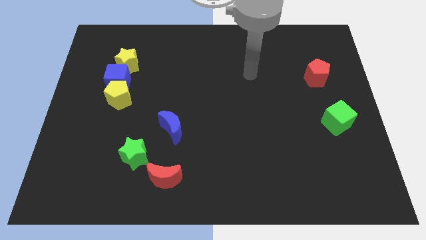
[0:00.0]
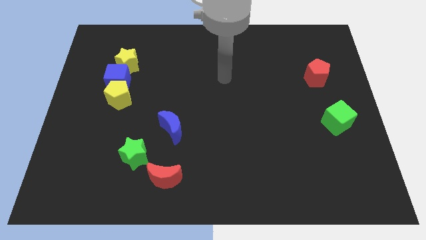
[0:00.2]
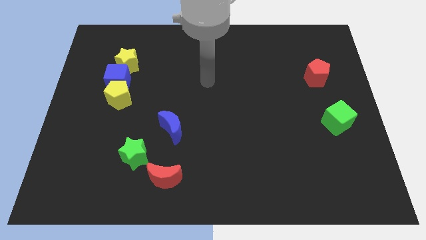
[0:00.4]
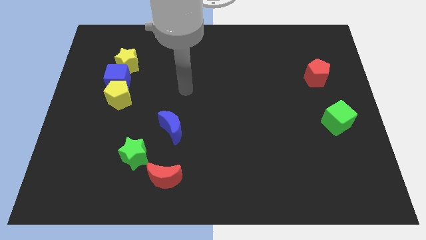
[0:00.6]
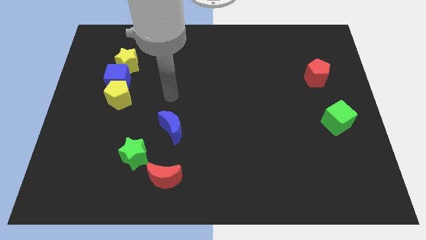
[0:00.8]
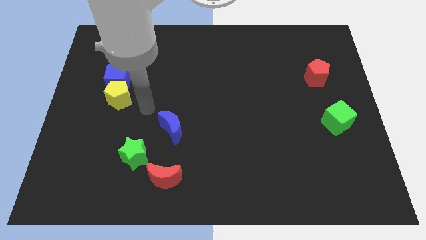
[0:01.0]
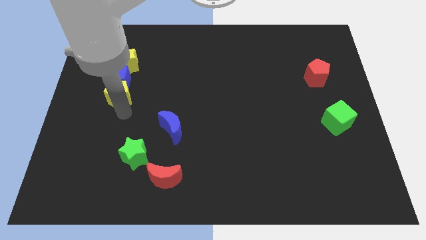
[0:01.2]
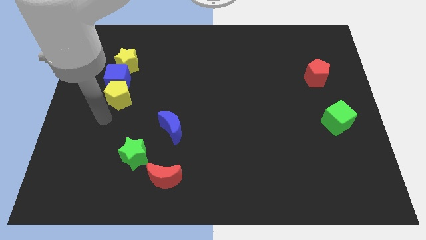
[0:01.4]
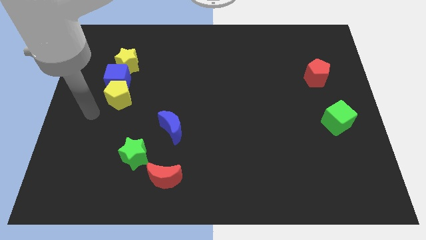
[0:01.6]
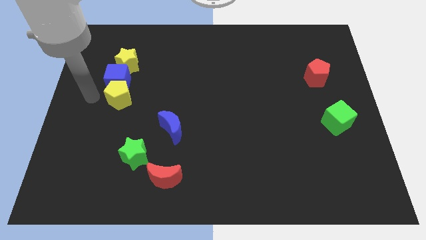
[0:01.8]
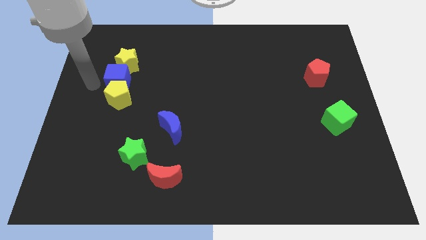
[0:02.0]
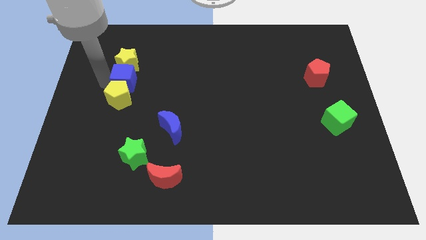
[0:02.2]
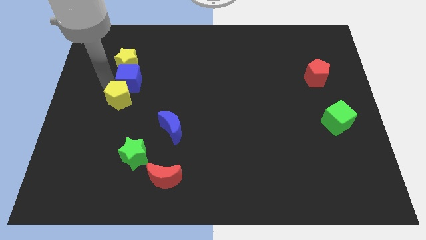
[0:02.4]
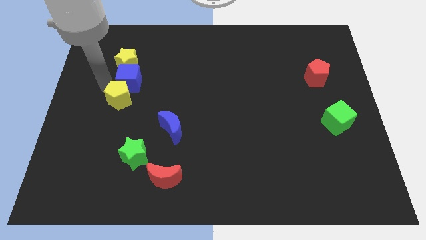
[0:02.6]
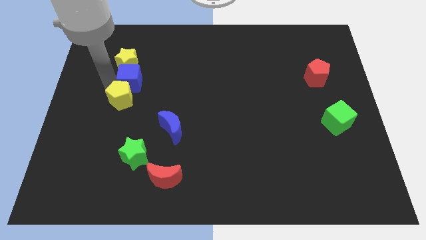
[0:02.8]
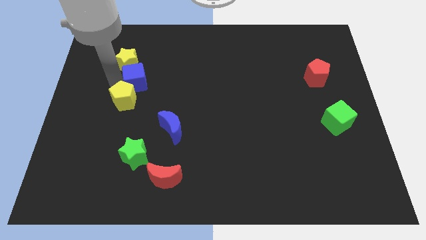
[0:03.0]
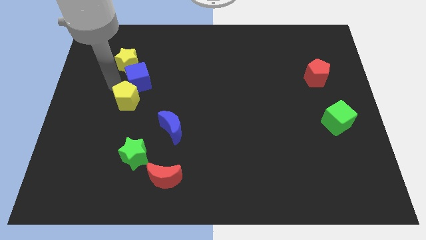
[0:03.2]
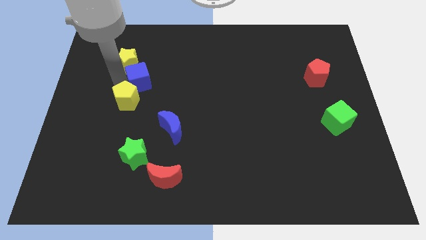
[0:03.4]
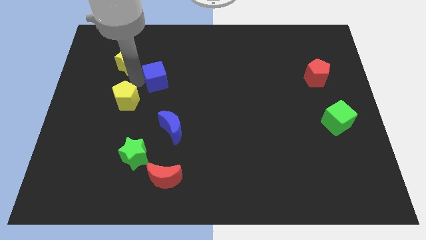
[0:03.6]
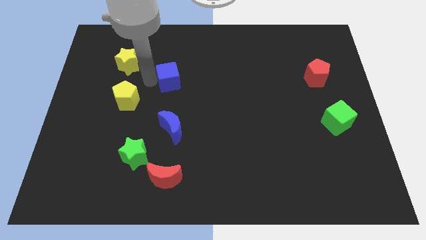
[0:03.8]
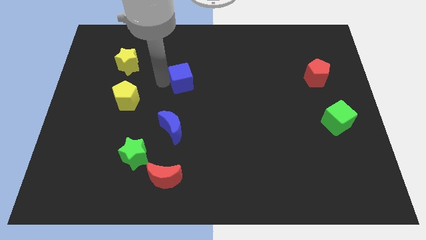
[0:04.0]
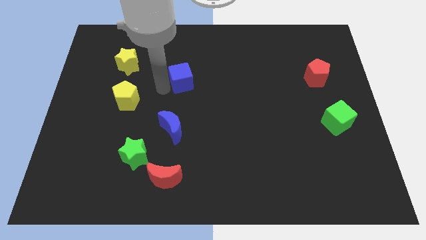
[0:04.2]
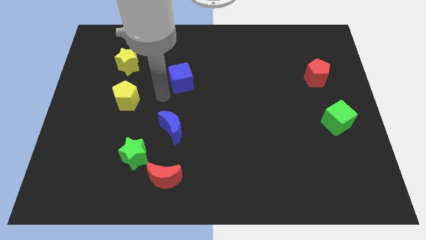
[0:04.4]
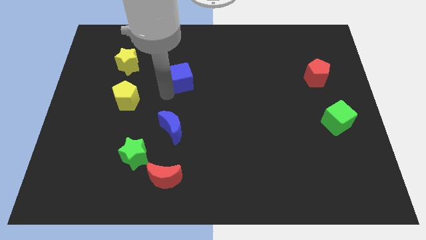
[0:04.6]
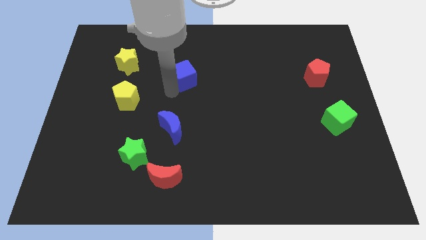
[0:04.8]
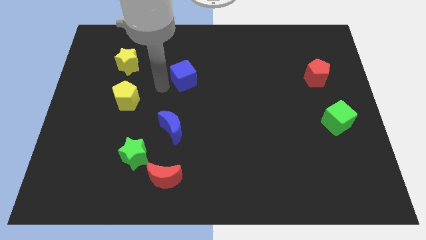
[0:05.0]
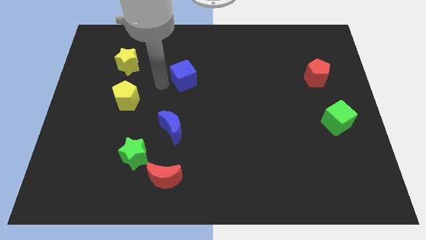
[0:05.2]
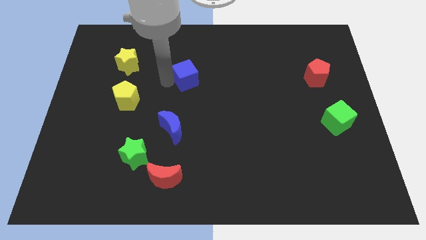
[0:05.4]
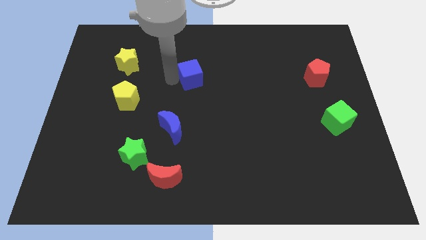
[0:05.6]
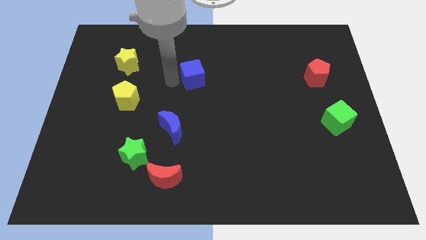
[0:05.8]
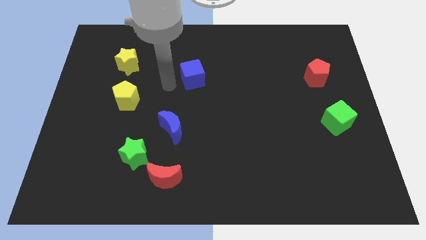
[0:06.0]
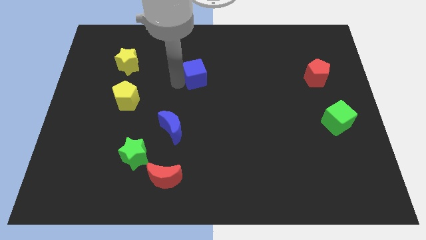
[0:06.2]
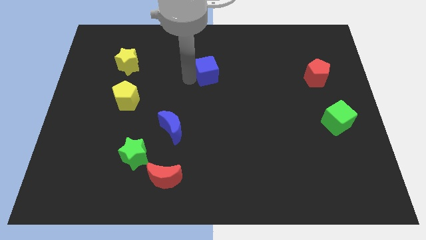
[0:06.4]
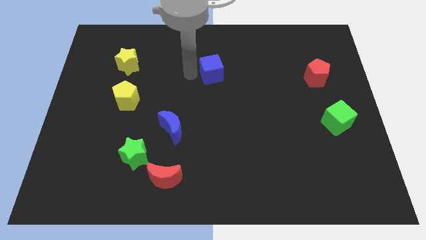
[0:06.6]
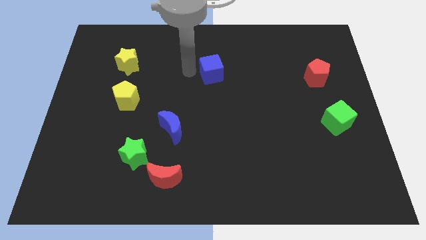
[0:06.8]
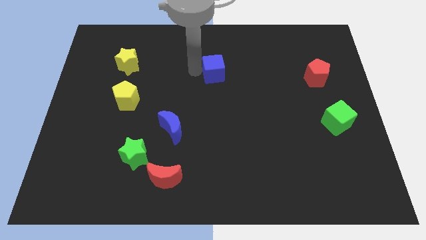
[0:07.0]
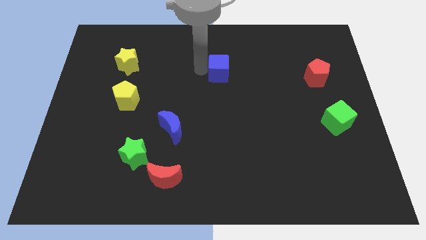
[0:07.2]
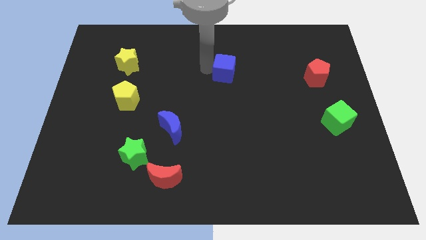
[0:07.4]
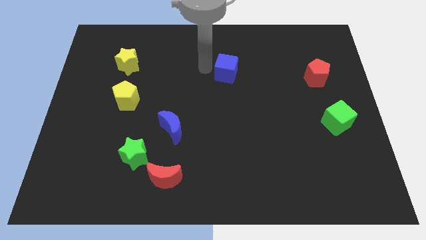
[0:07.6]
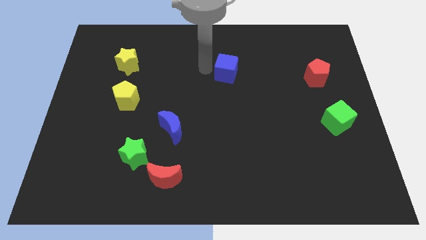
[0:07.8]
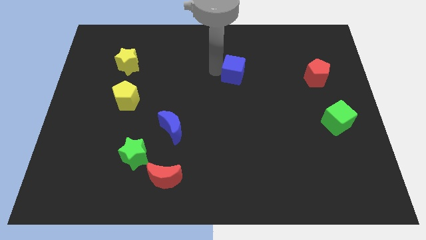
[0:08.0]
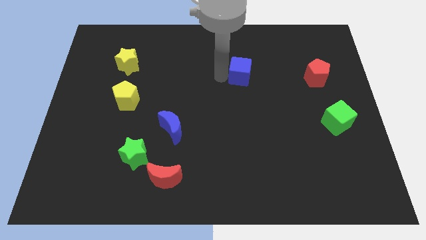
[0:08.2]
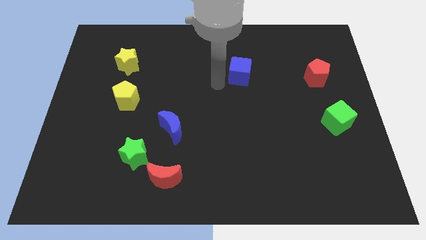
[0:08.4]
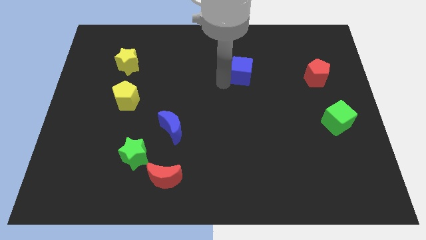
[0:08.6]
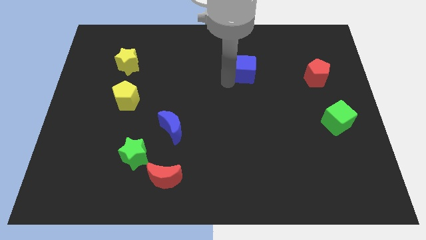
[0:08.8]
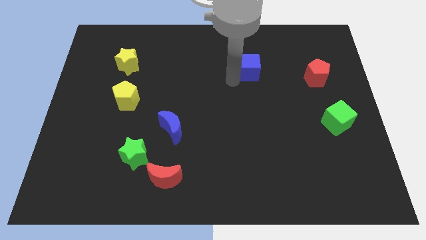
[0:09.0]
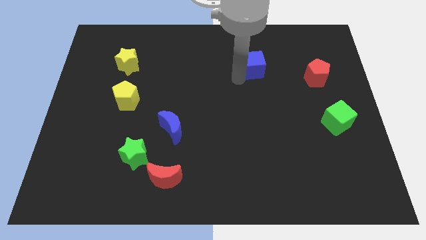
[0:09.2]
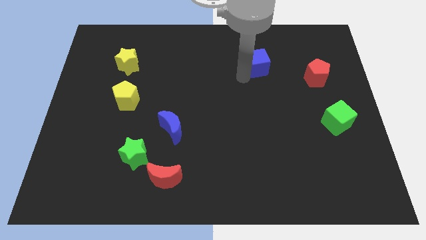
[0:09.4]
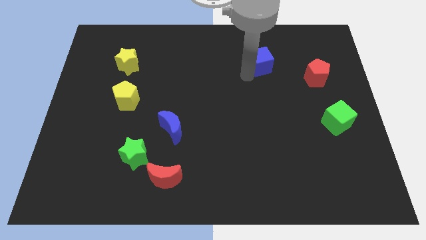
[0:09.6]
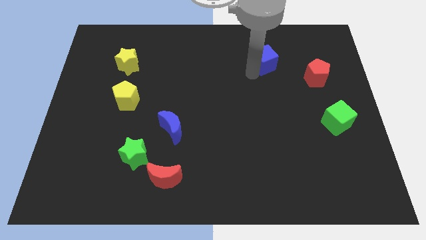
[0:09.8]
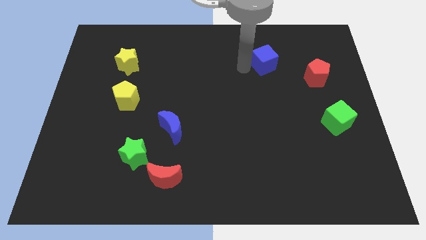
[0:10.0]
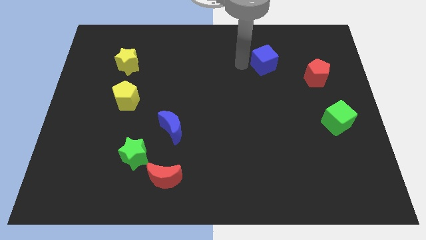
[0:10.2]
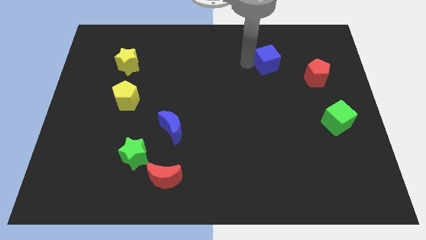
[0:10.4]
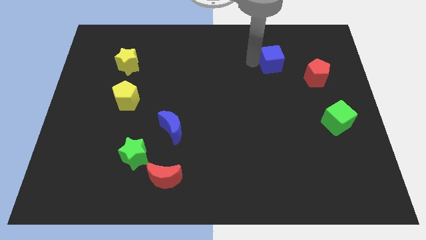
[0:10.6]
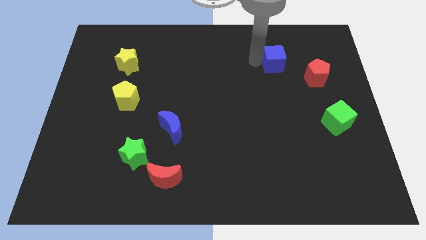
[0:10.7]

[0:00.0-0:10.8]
move the blue cube to the top left side of the red pentagon

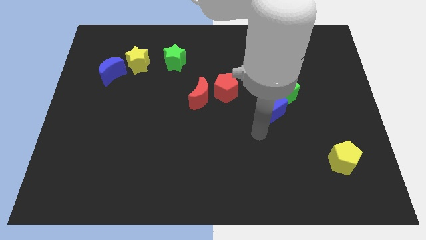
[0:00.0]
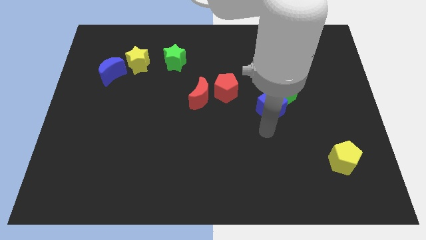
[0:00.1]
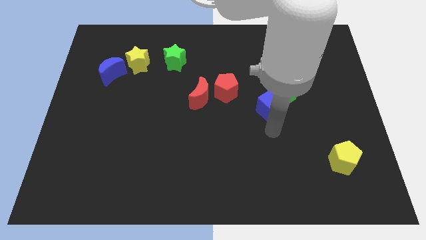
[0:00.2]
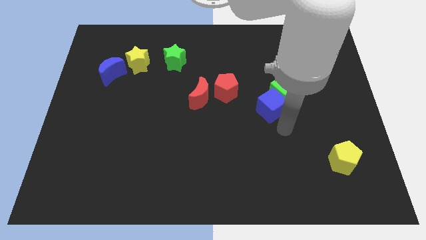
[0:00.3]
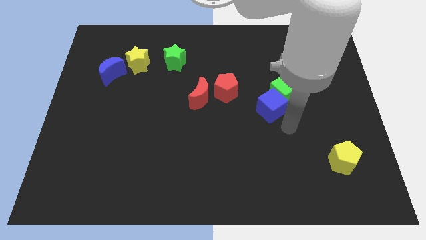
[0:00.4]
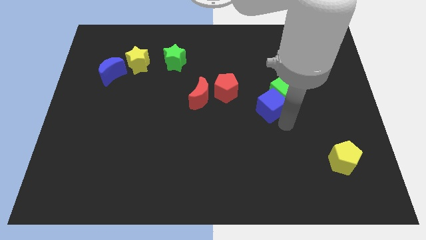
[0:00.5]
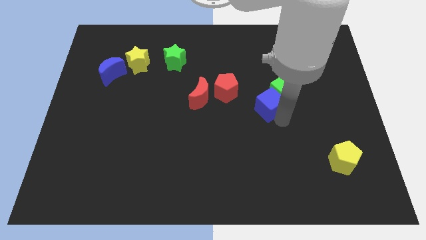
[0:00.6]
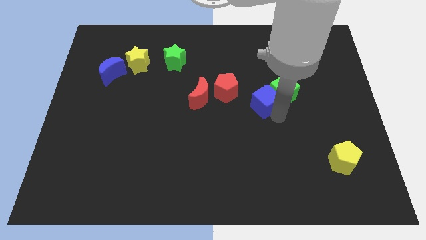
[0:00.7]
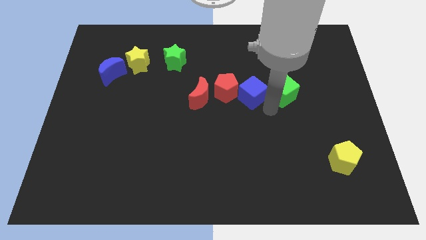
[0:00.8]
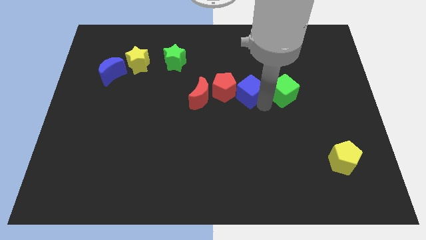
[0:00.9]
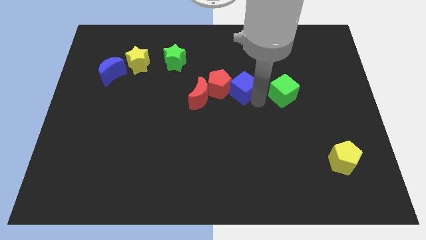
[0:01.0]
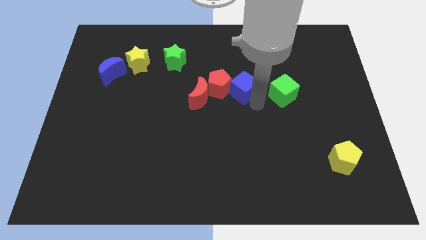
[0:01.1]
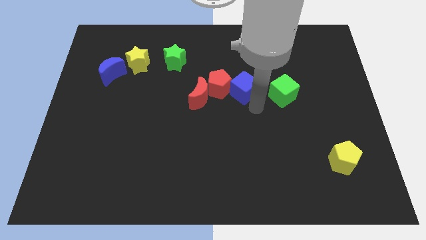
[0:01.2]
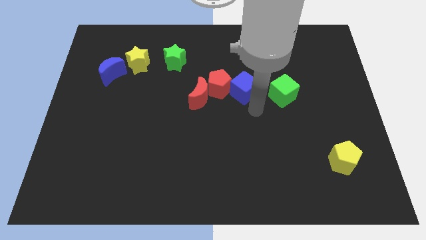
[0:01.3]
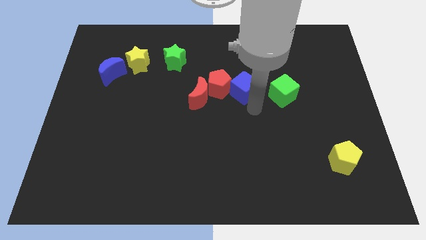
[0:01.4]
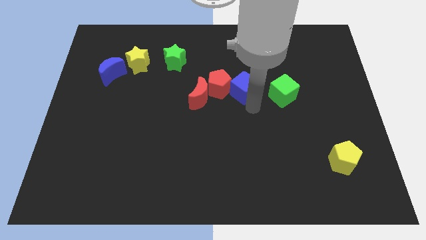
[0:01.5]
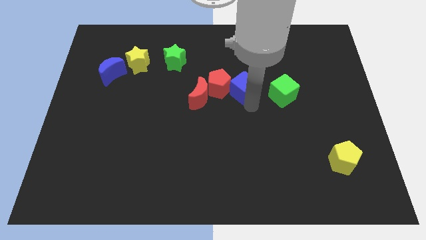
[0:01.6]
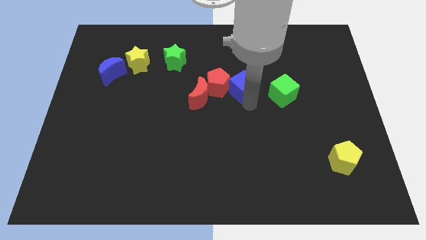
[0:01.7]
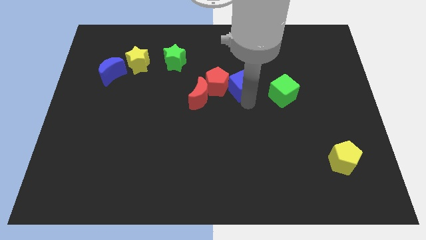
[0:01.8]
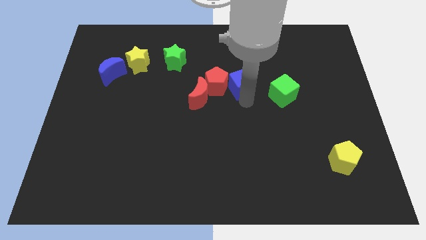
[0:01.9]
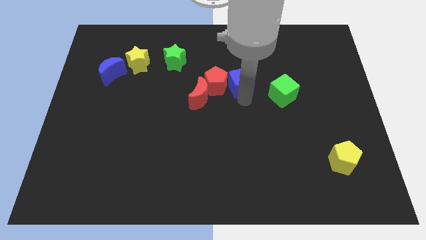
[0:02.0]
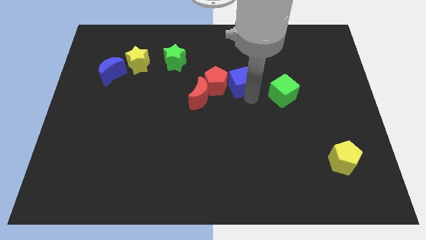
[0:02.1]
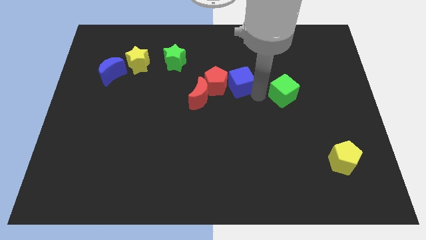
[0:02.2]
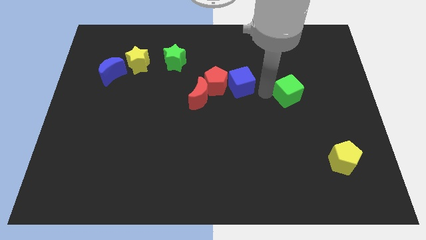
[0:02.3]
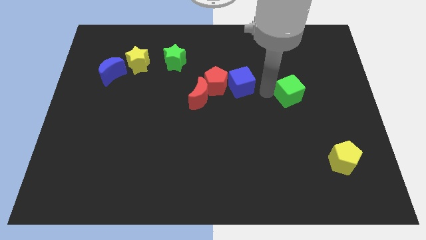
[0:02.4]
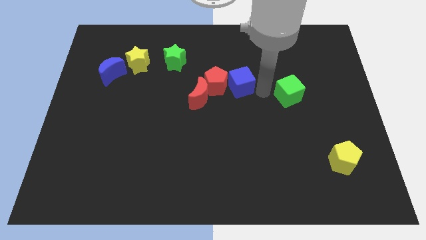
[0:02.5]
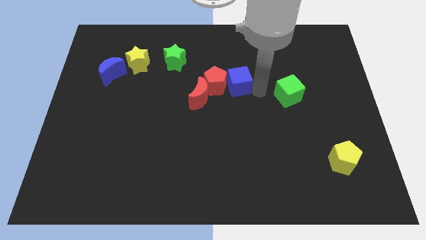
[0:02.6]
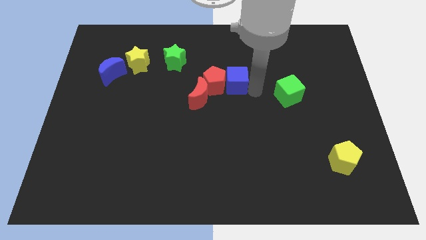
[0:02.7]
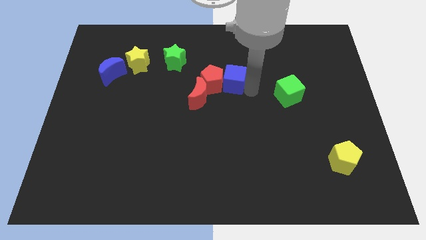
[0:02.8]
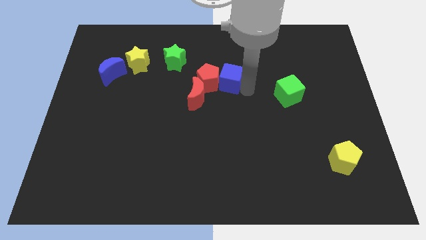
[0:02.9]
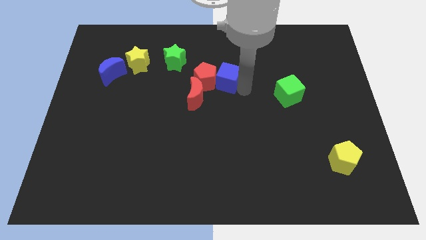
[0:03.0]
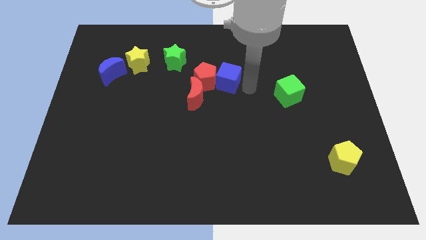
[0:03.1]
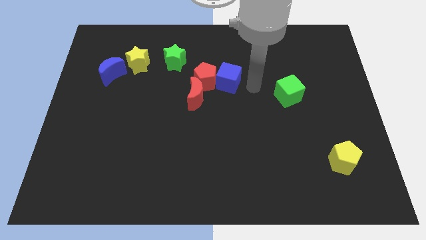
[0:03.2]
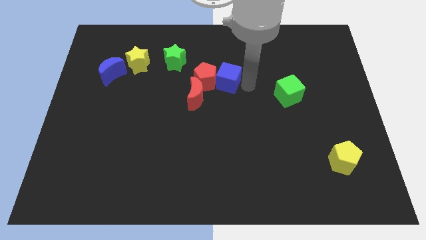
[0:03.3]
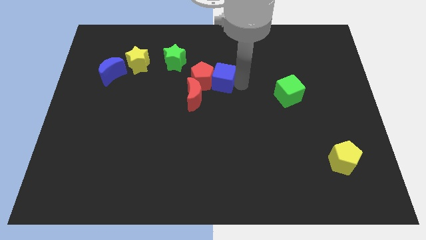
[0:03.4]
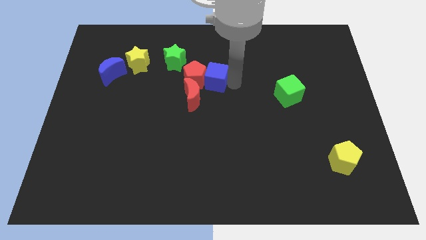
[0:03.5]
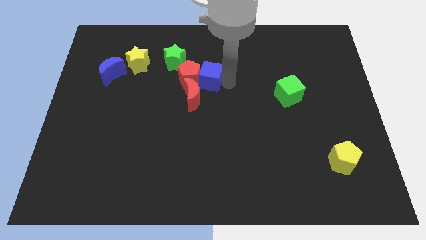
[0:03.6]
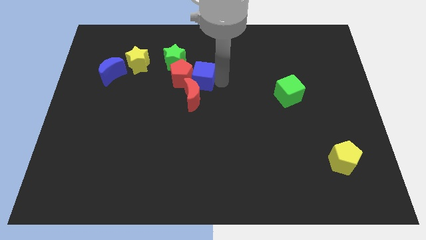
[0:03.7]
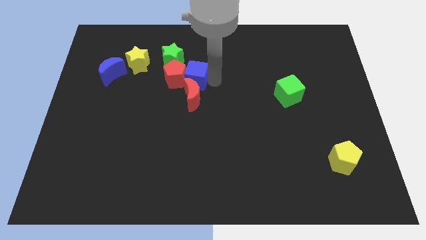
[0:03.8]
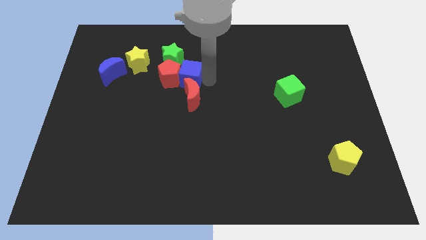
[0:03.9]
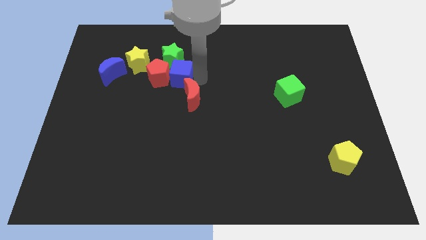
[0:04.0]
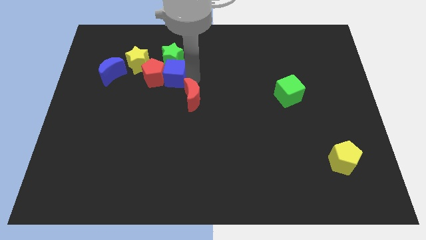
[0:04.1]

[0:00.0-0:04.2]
slide the blue cube to the right side of the blue moon
